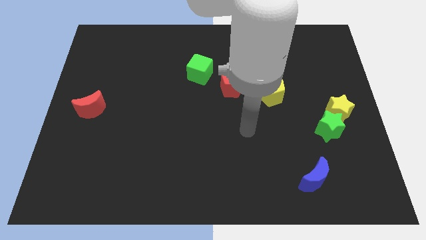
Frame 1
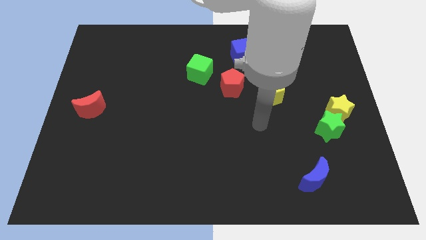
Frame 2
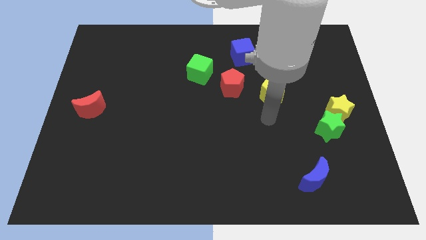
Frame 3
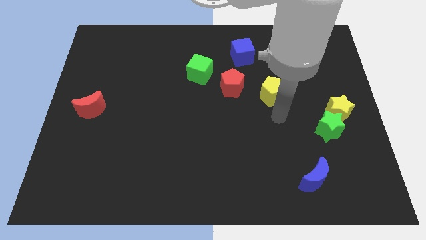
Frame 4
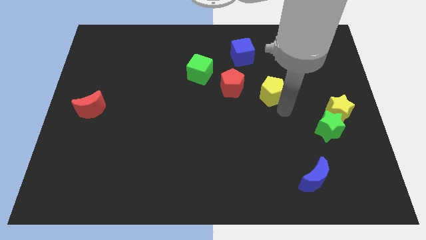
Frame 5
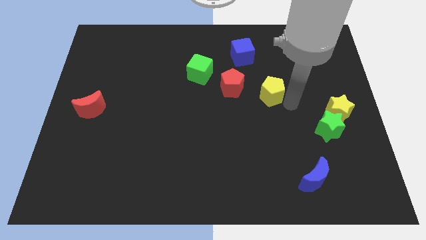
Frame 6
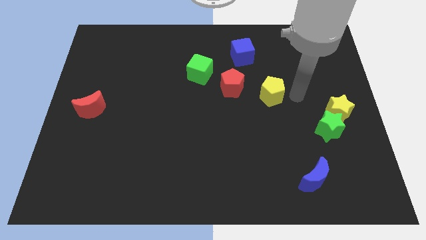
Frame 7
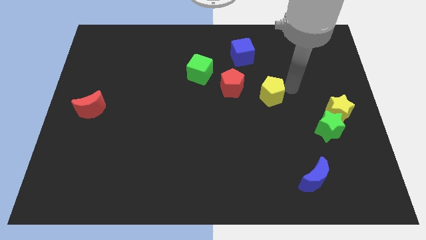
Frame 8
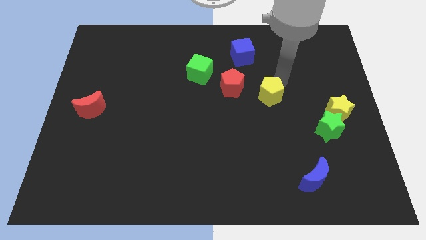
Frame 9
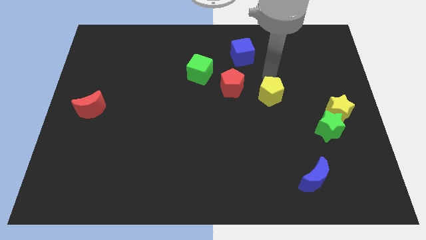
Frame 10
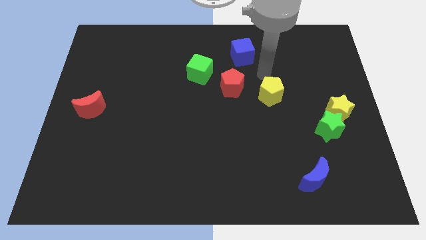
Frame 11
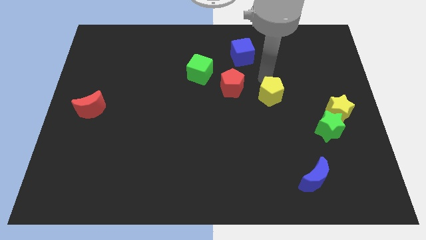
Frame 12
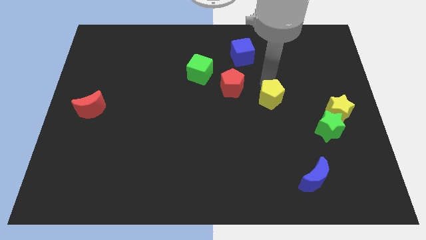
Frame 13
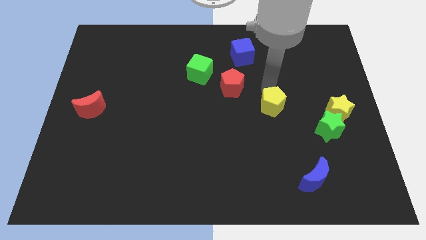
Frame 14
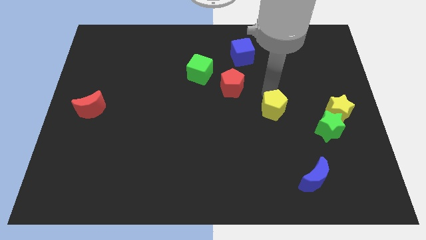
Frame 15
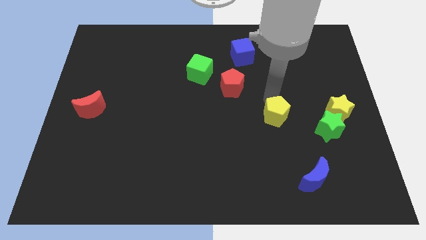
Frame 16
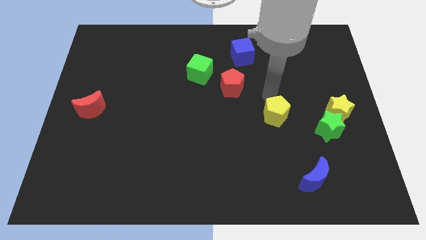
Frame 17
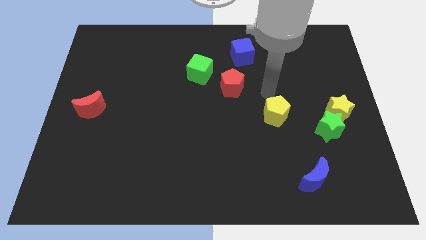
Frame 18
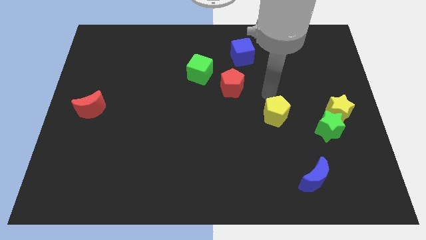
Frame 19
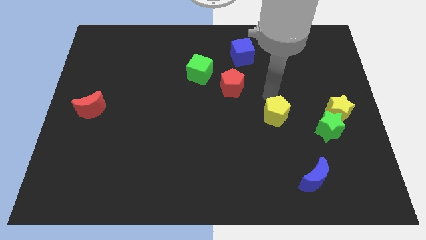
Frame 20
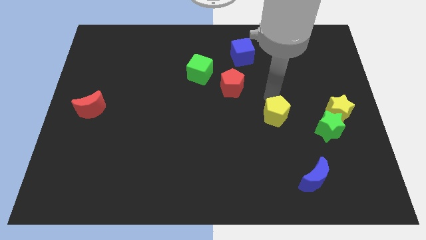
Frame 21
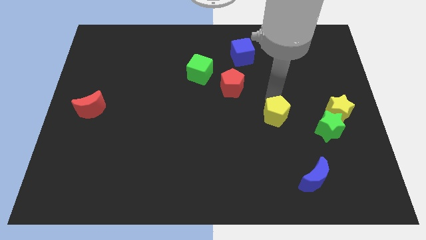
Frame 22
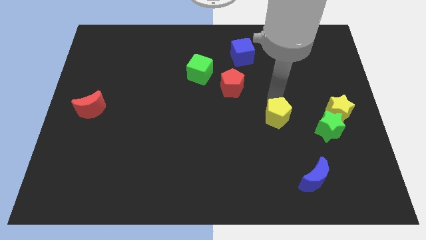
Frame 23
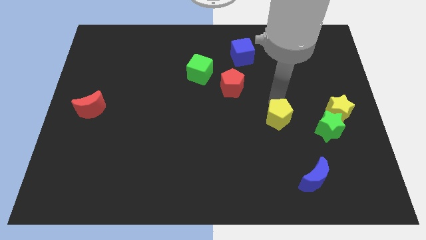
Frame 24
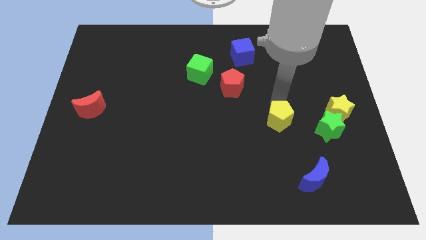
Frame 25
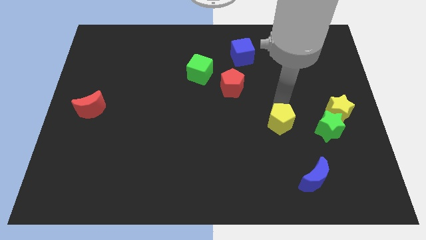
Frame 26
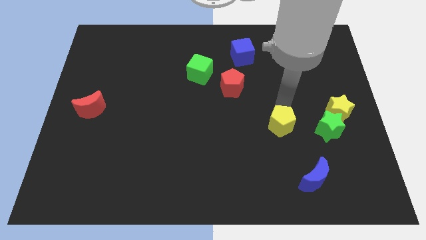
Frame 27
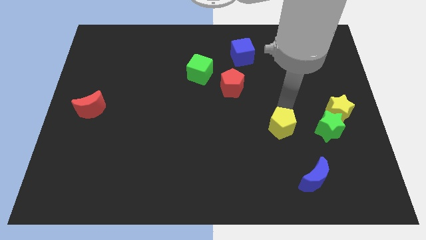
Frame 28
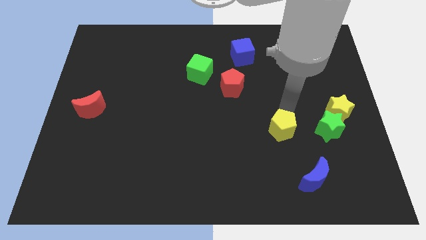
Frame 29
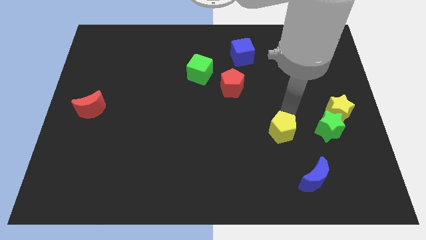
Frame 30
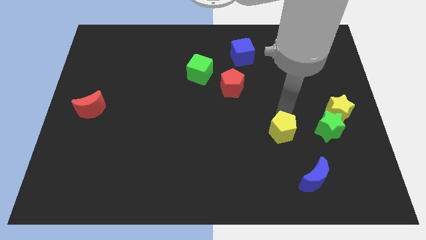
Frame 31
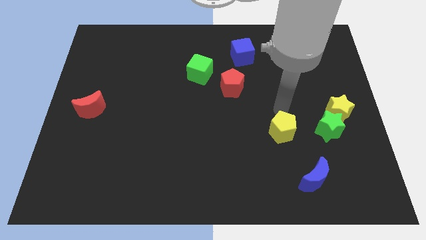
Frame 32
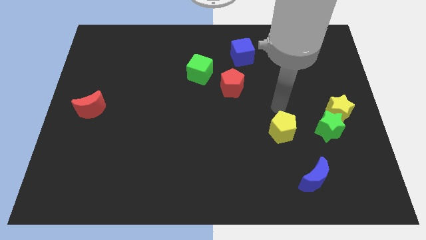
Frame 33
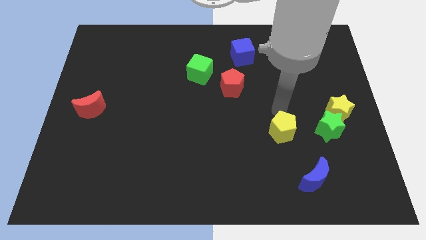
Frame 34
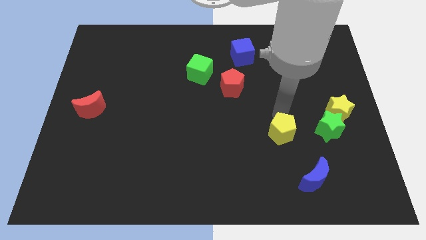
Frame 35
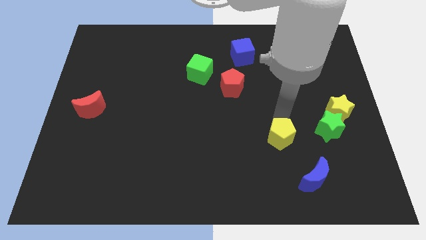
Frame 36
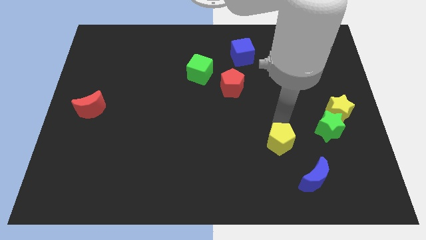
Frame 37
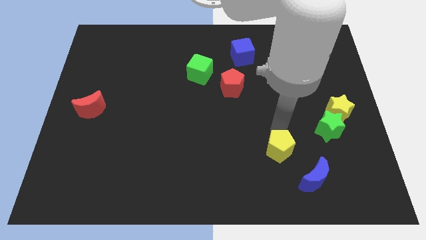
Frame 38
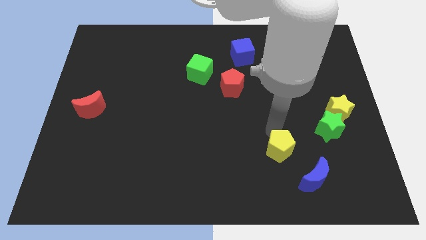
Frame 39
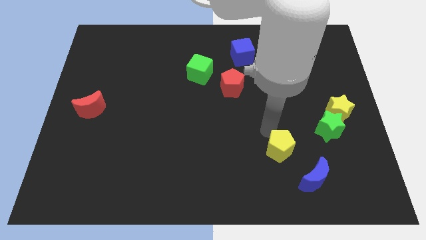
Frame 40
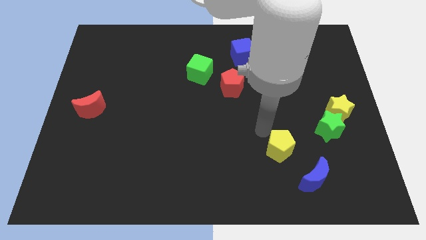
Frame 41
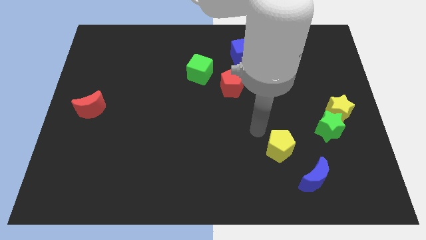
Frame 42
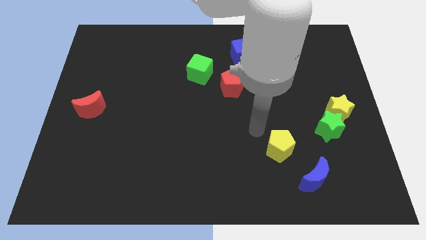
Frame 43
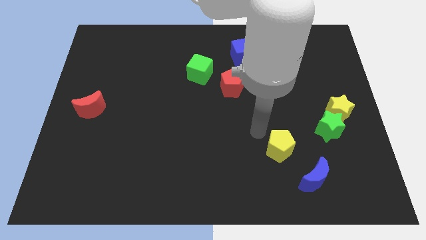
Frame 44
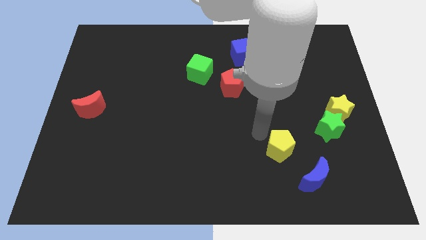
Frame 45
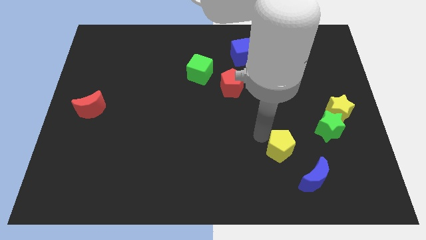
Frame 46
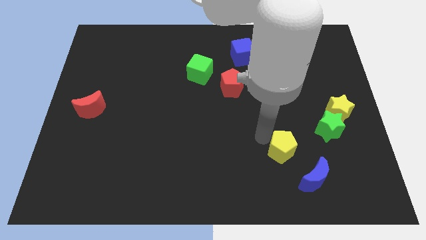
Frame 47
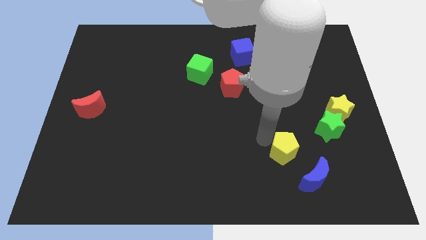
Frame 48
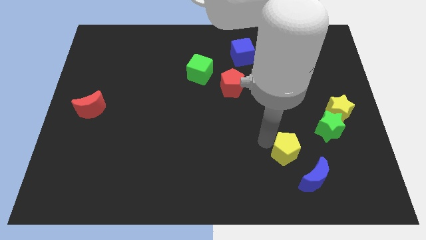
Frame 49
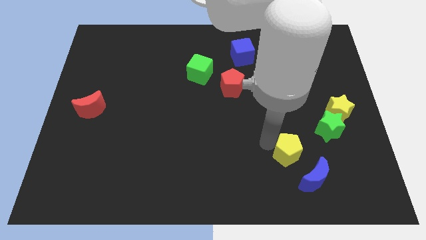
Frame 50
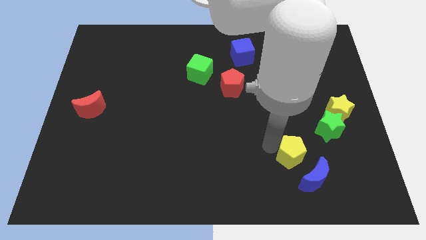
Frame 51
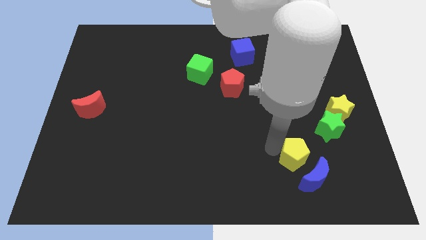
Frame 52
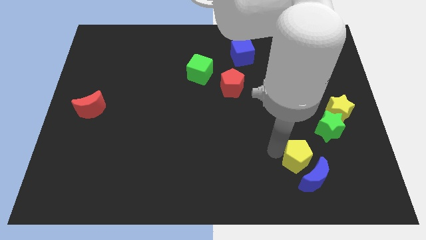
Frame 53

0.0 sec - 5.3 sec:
slide the yellow pentagon towards the blue moon

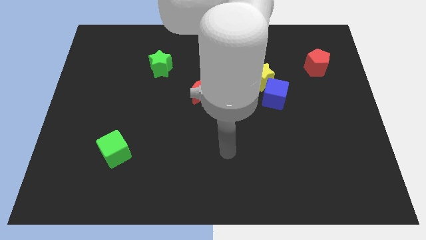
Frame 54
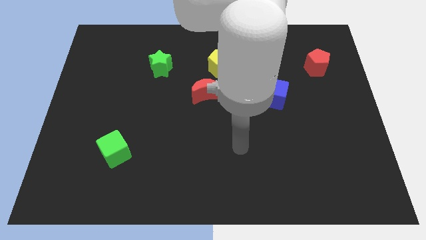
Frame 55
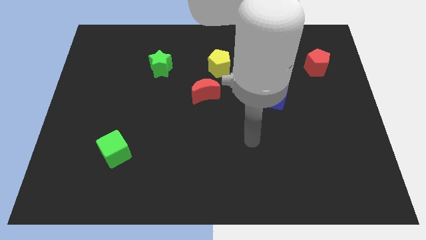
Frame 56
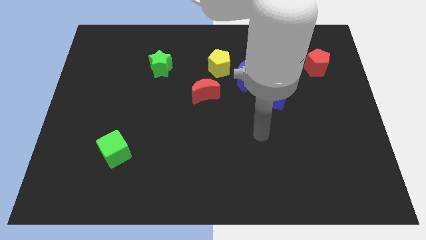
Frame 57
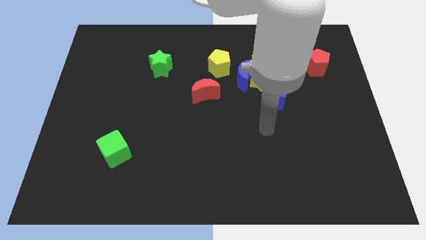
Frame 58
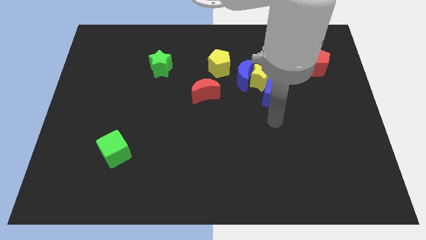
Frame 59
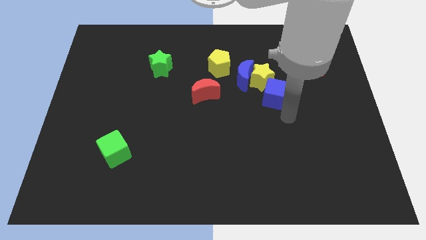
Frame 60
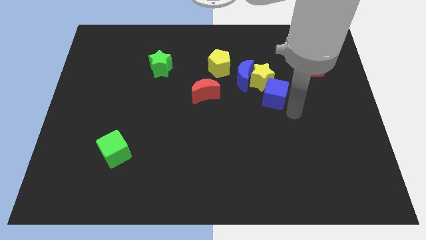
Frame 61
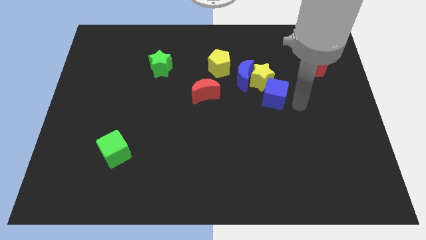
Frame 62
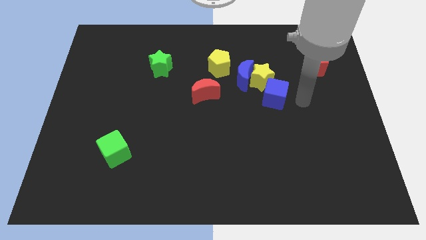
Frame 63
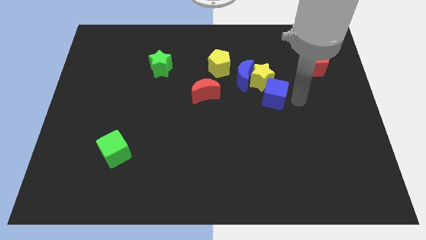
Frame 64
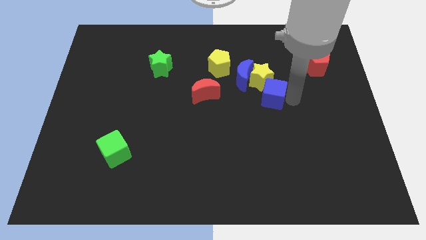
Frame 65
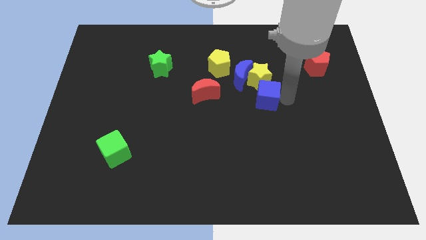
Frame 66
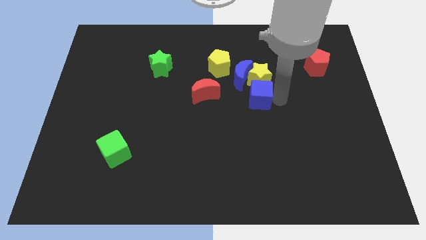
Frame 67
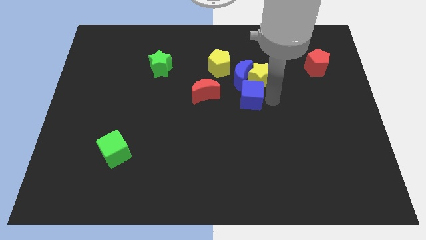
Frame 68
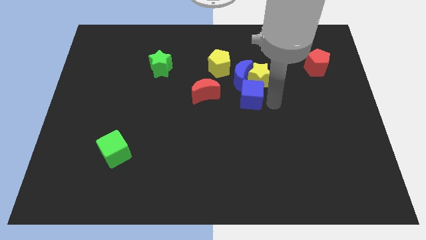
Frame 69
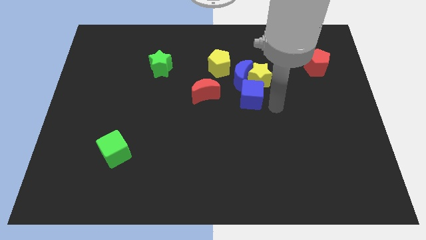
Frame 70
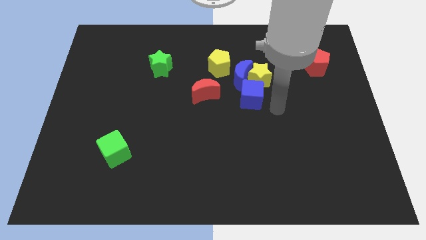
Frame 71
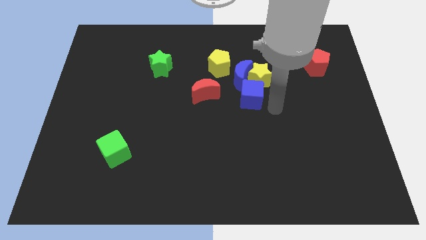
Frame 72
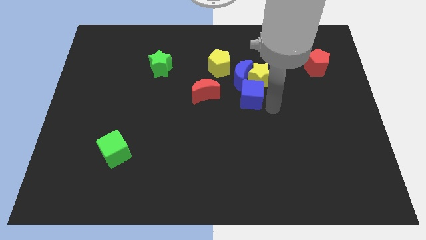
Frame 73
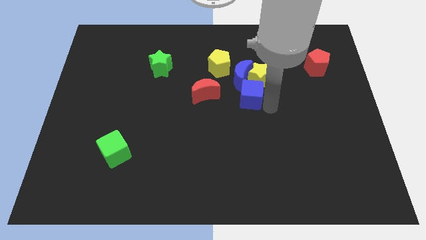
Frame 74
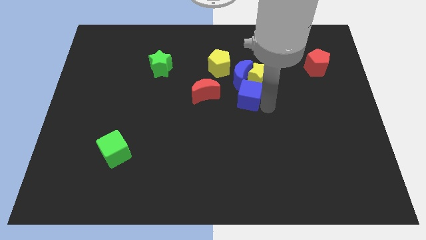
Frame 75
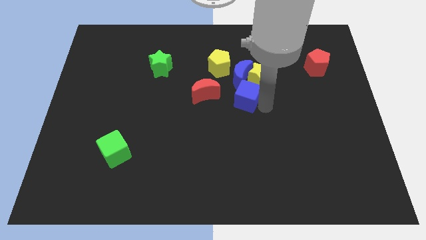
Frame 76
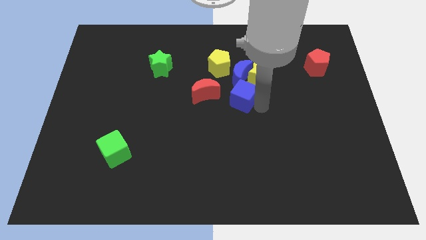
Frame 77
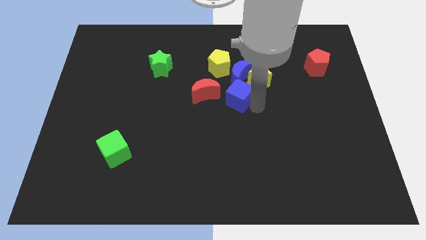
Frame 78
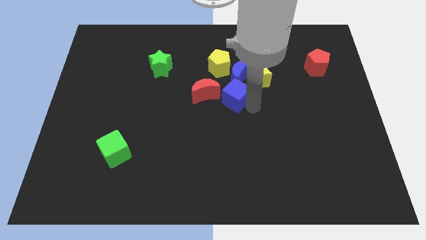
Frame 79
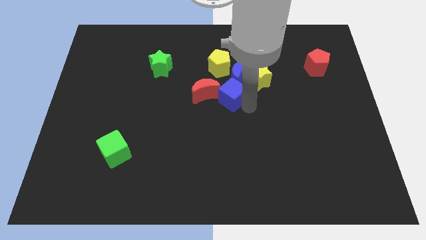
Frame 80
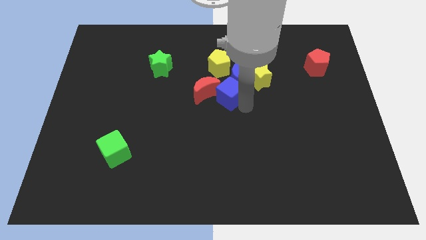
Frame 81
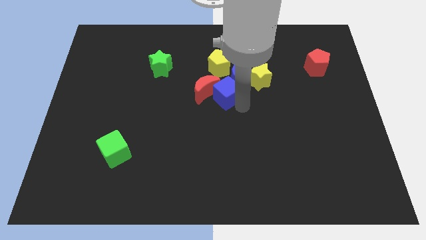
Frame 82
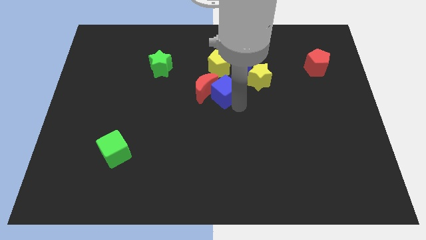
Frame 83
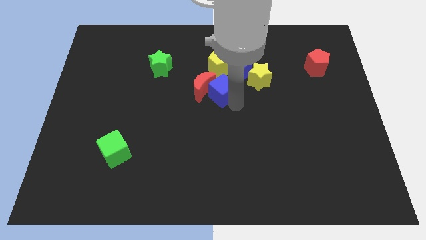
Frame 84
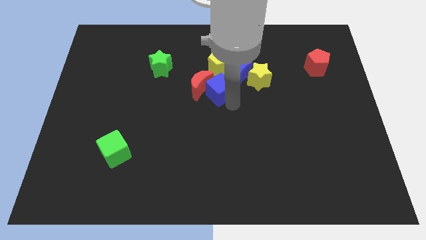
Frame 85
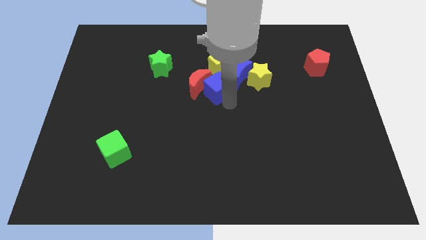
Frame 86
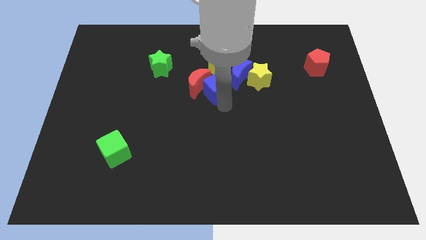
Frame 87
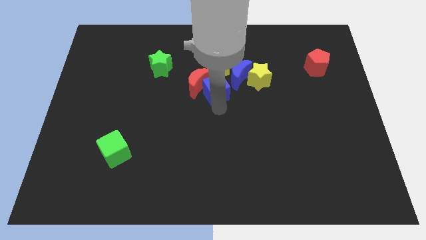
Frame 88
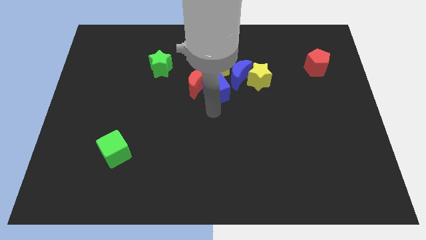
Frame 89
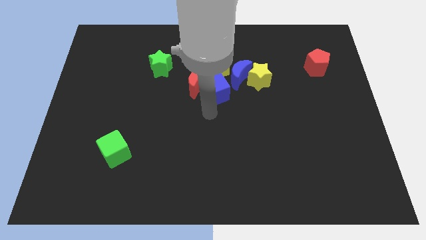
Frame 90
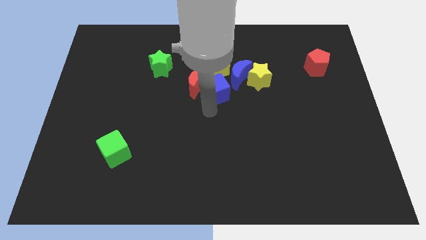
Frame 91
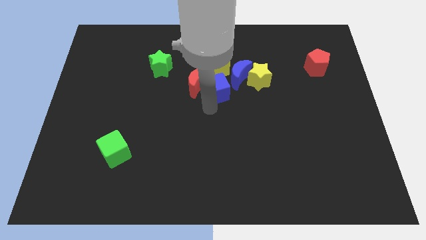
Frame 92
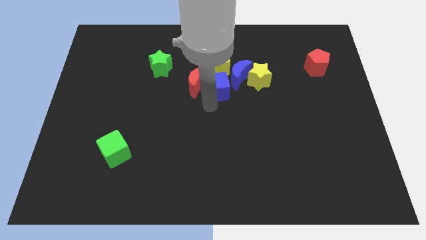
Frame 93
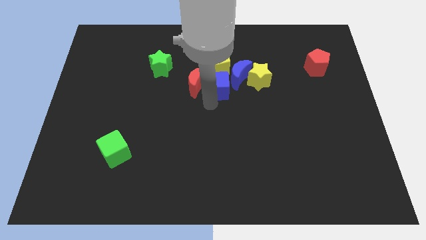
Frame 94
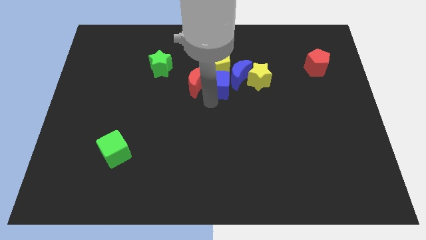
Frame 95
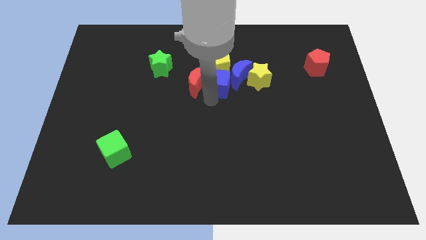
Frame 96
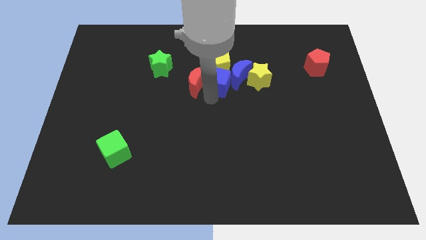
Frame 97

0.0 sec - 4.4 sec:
slide the blue cube close to the yellow pentagon
